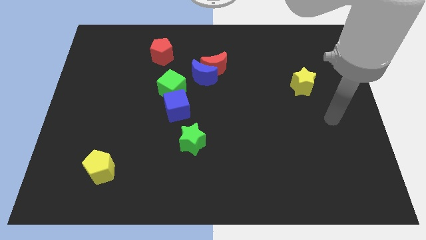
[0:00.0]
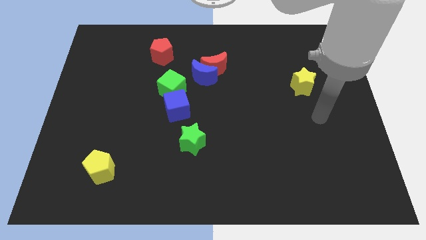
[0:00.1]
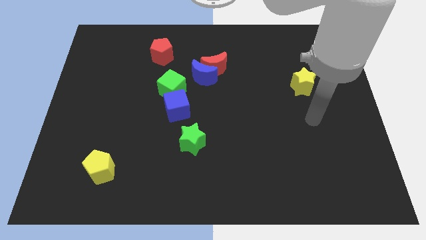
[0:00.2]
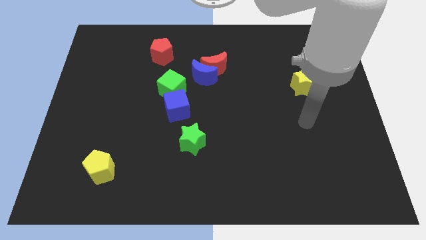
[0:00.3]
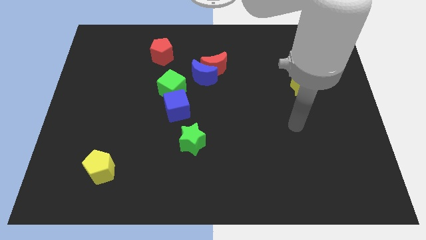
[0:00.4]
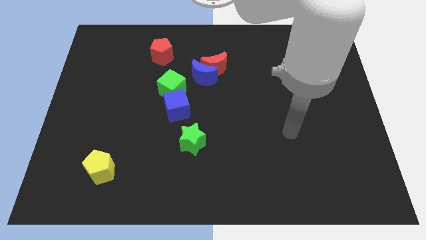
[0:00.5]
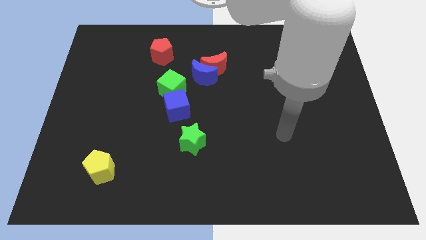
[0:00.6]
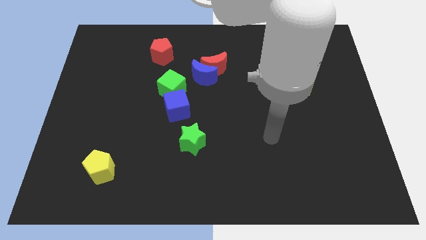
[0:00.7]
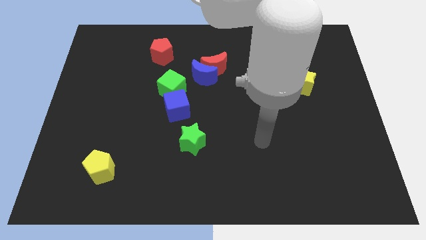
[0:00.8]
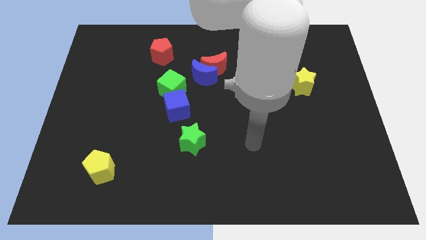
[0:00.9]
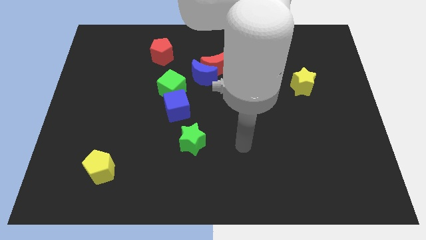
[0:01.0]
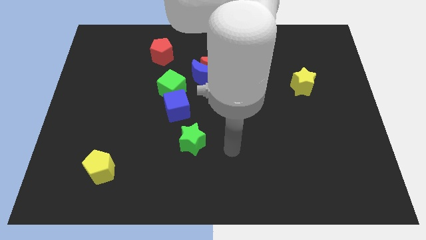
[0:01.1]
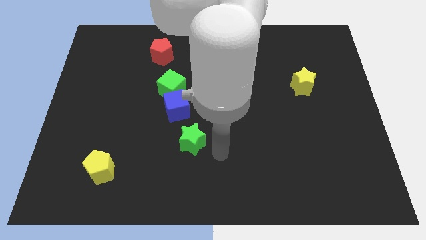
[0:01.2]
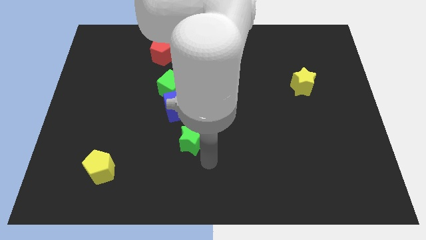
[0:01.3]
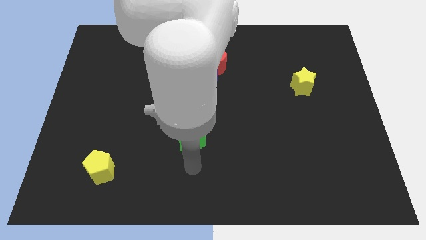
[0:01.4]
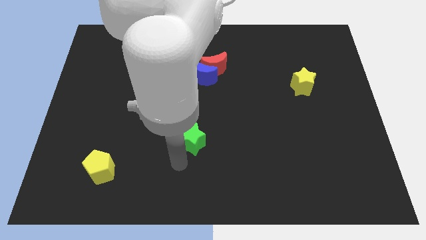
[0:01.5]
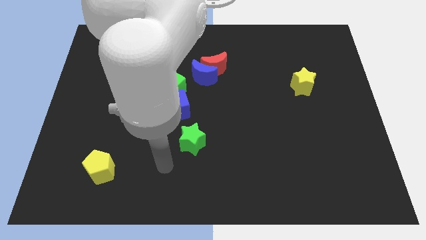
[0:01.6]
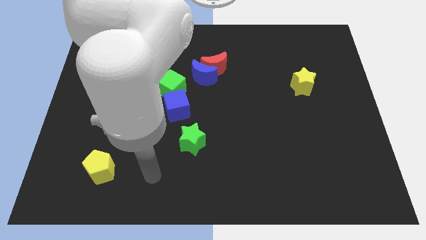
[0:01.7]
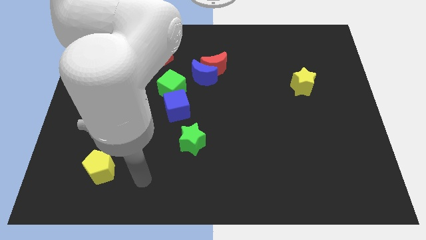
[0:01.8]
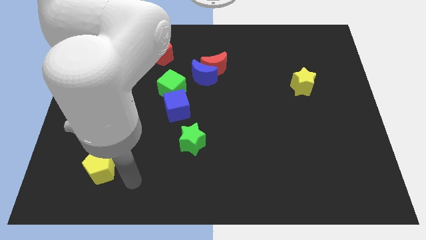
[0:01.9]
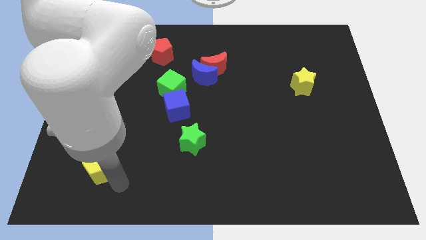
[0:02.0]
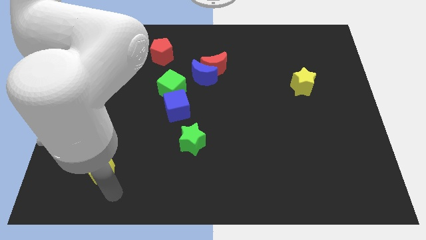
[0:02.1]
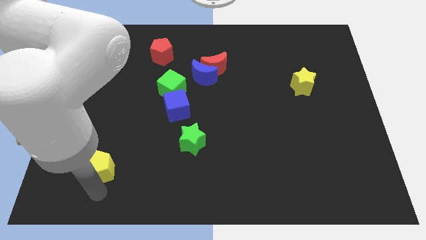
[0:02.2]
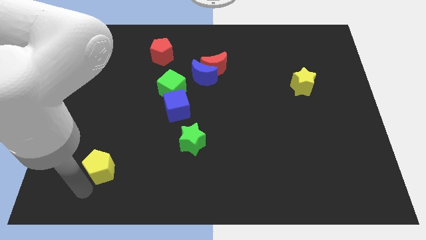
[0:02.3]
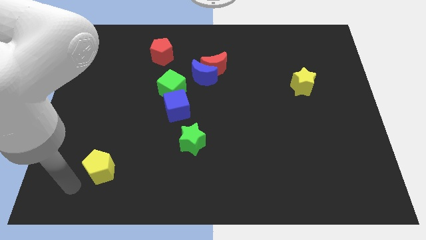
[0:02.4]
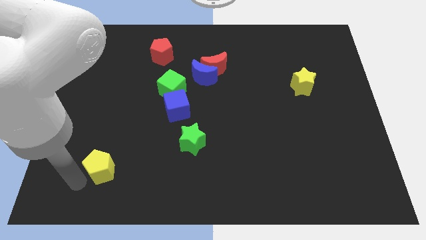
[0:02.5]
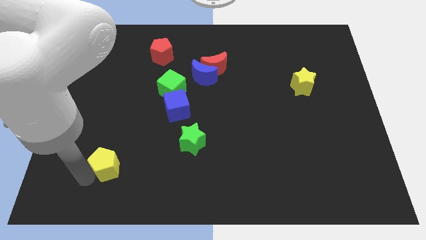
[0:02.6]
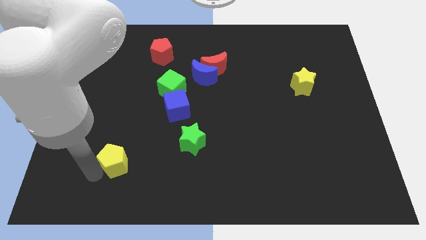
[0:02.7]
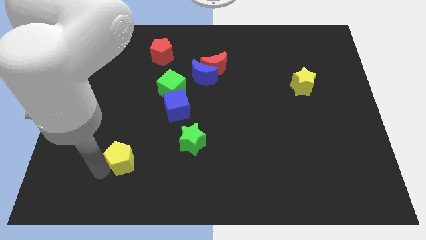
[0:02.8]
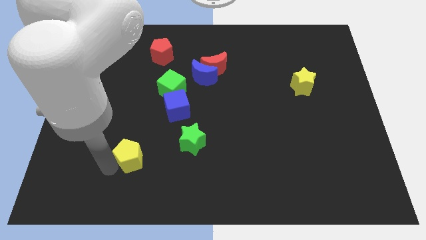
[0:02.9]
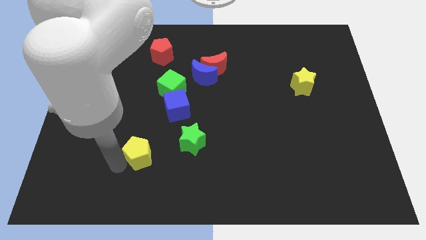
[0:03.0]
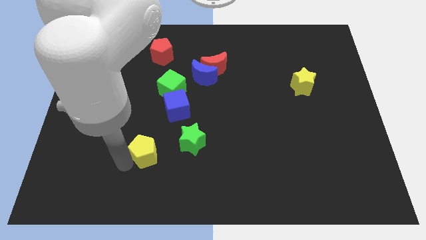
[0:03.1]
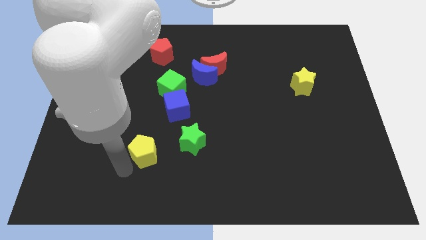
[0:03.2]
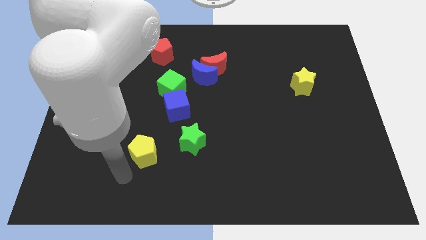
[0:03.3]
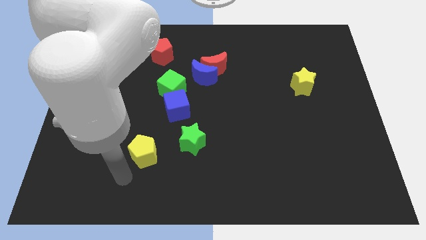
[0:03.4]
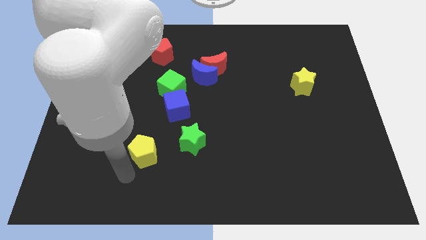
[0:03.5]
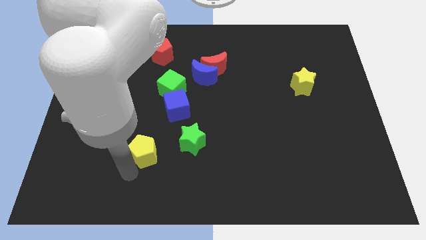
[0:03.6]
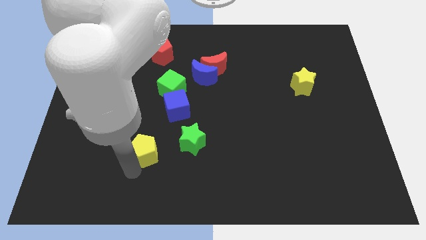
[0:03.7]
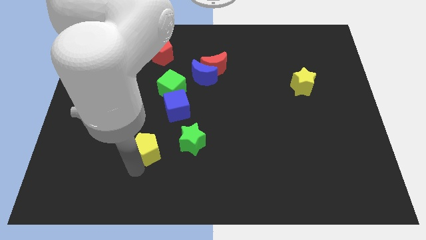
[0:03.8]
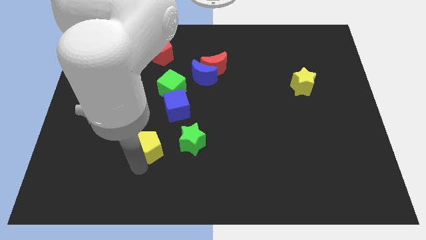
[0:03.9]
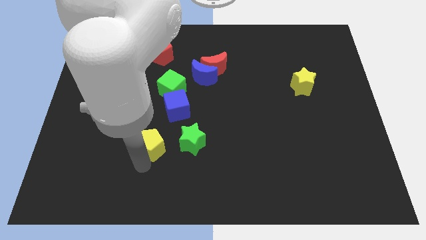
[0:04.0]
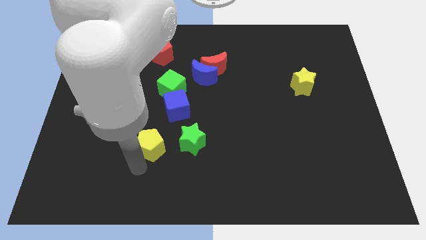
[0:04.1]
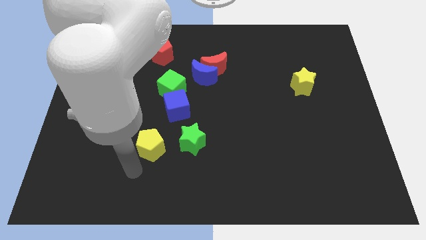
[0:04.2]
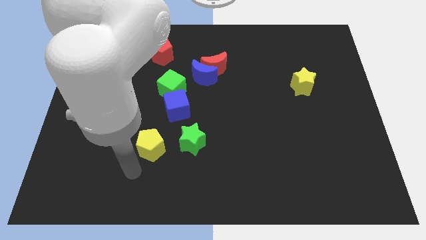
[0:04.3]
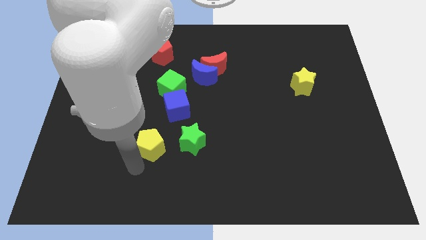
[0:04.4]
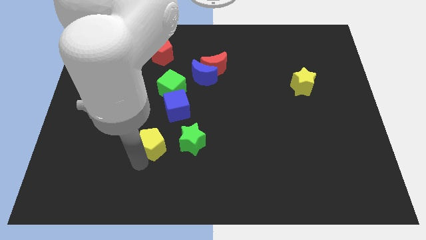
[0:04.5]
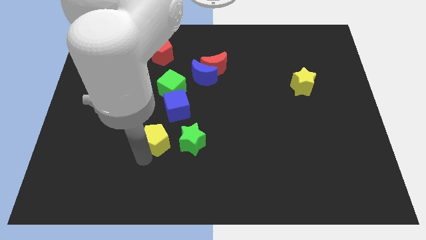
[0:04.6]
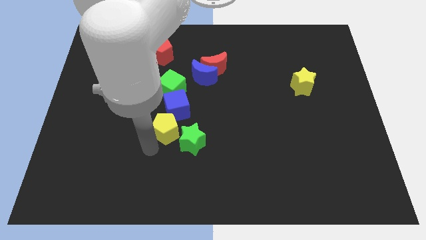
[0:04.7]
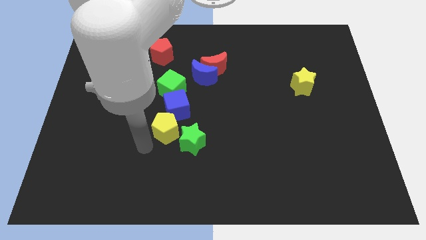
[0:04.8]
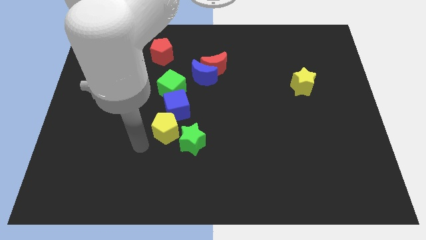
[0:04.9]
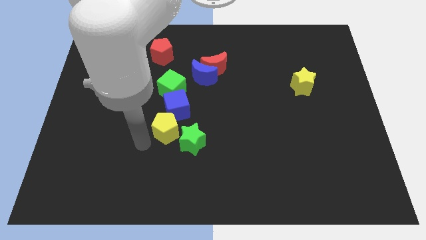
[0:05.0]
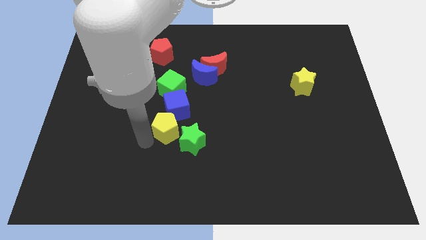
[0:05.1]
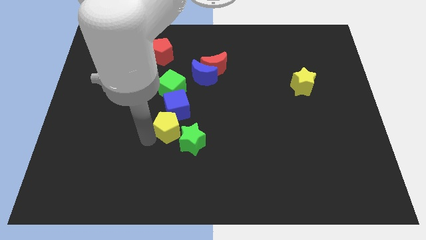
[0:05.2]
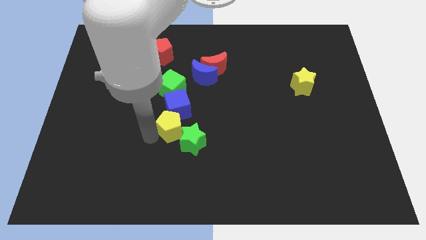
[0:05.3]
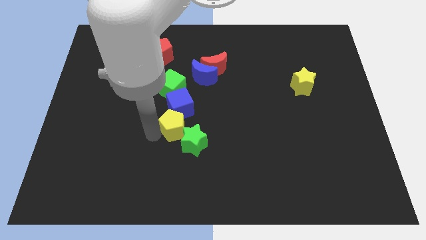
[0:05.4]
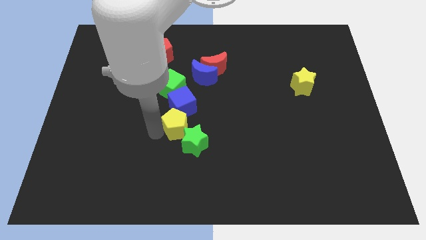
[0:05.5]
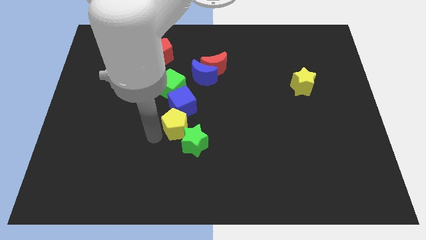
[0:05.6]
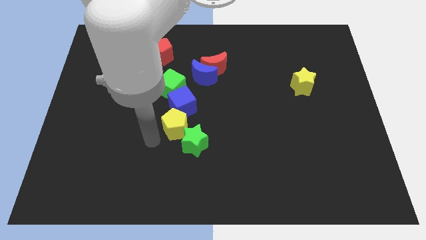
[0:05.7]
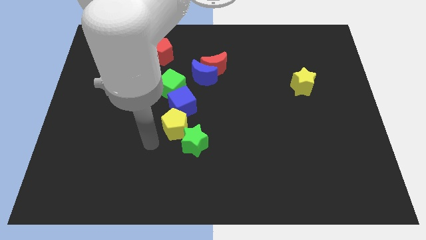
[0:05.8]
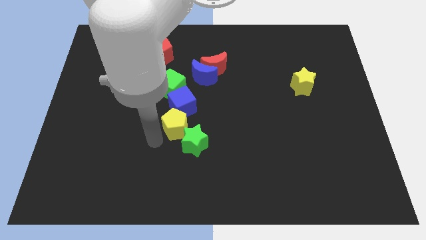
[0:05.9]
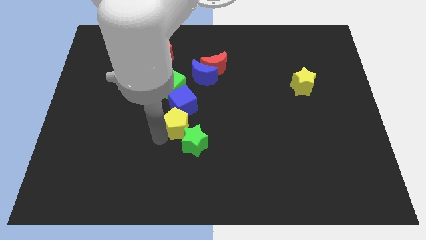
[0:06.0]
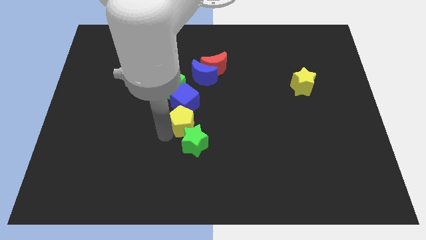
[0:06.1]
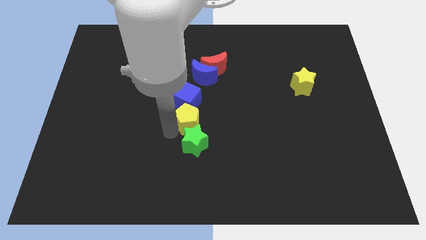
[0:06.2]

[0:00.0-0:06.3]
put the yellow pentagon diagonally down and to the right of the green cube

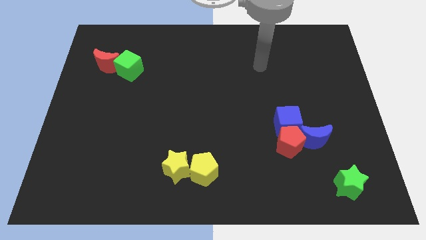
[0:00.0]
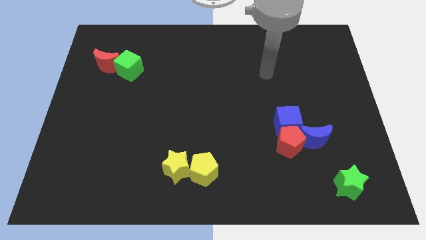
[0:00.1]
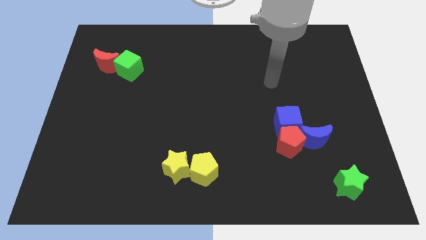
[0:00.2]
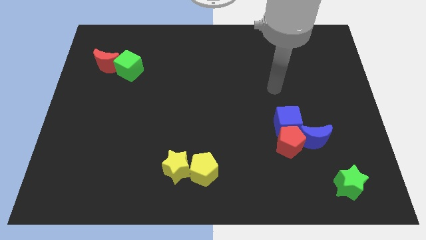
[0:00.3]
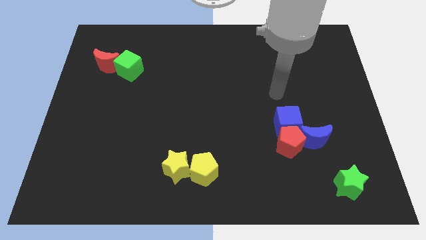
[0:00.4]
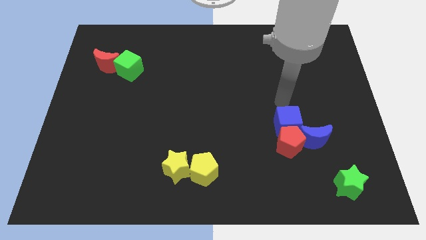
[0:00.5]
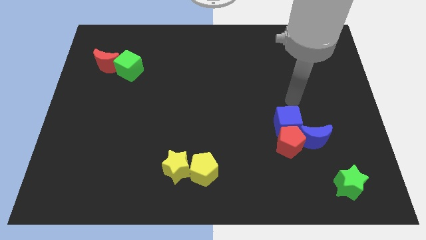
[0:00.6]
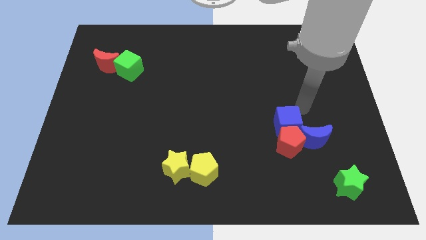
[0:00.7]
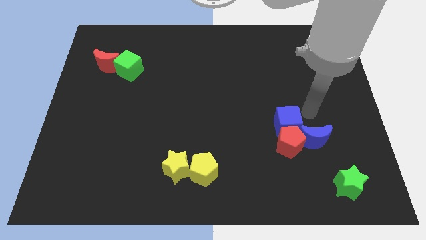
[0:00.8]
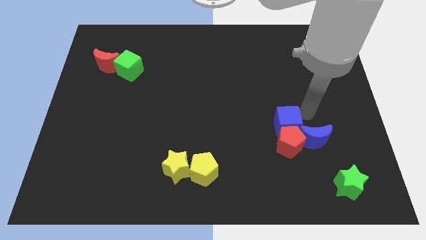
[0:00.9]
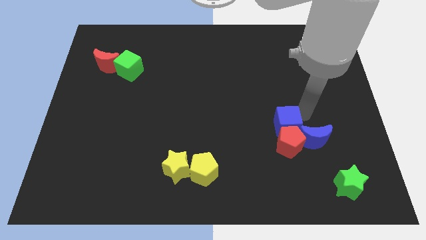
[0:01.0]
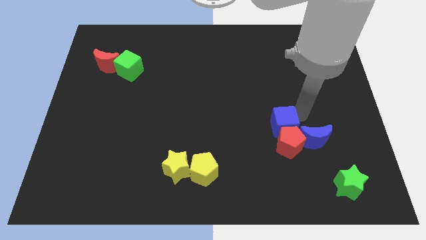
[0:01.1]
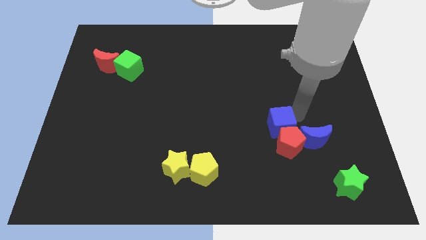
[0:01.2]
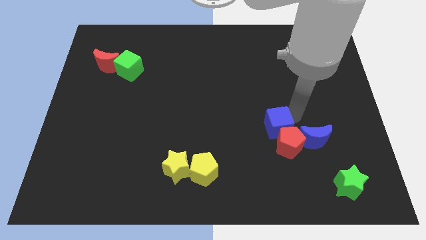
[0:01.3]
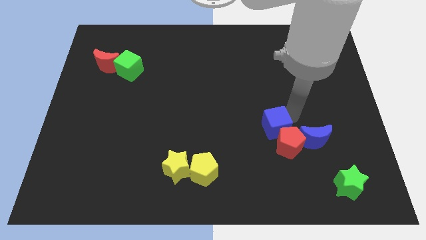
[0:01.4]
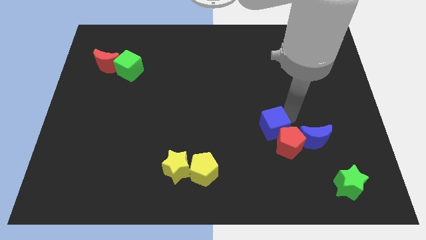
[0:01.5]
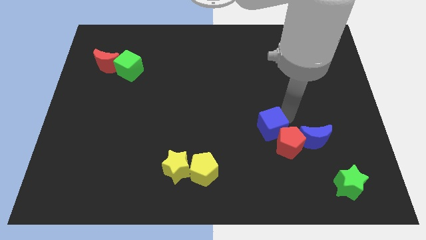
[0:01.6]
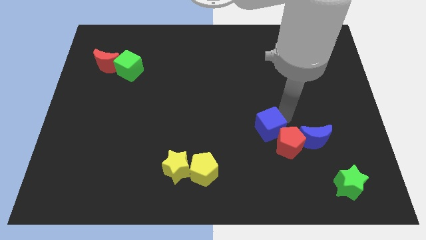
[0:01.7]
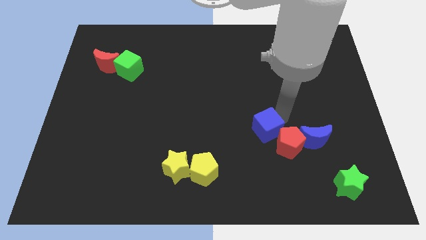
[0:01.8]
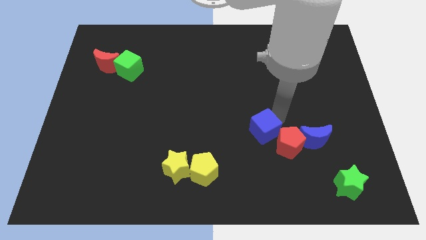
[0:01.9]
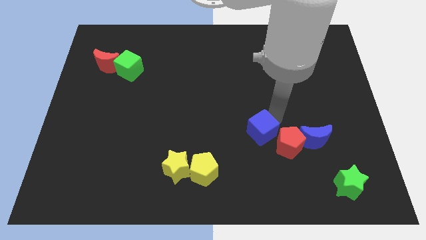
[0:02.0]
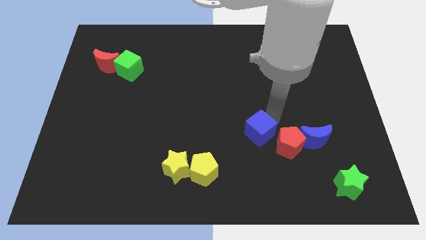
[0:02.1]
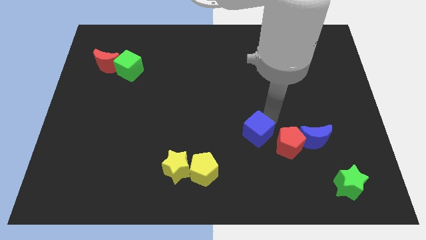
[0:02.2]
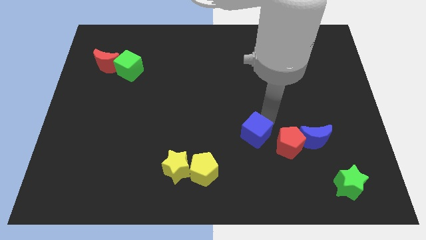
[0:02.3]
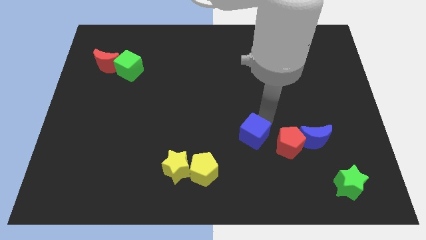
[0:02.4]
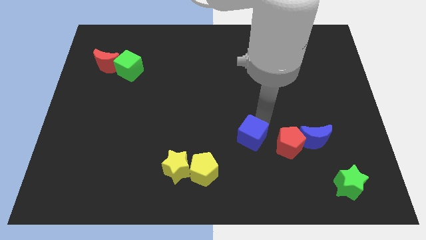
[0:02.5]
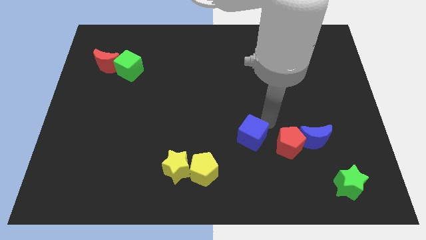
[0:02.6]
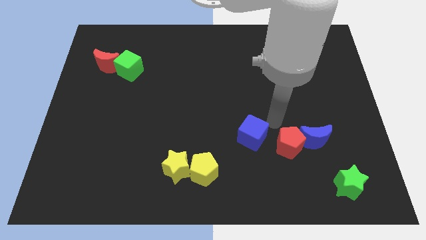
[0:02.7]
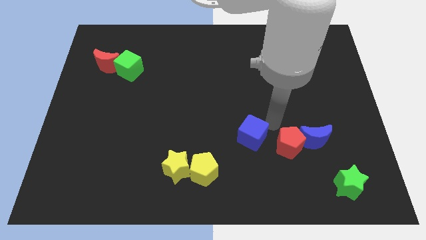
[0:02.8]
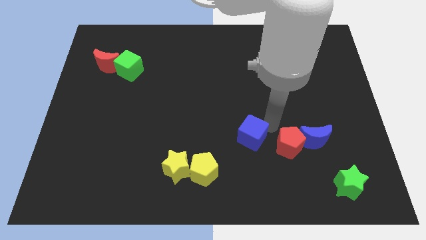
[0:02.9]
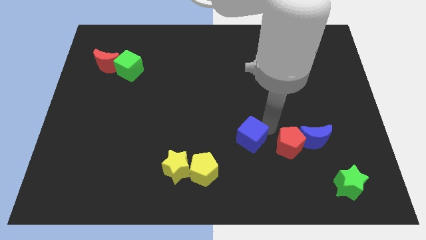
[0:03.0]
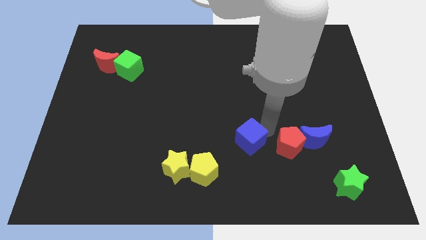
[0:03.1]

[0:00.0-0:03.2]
put the blue cube to the top right side of the yellow pentagon
